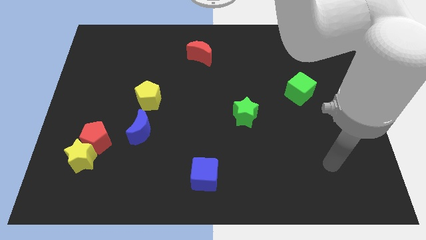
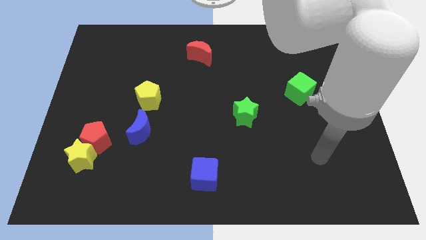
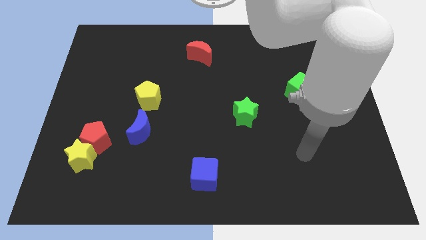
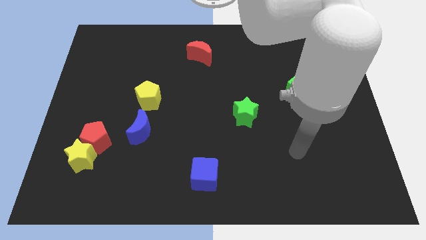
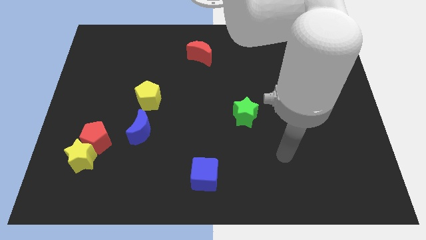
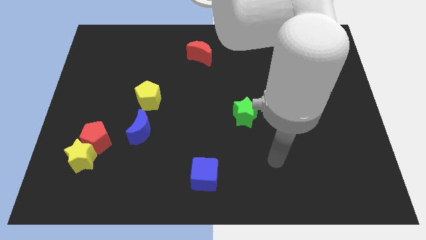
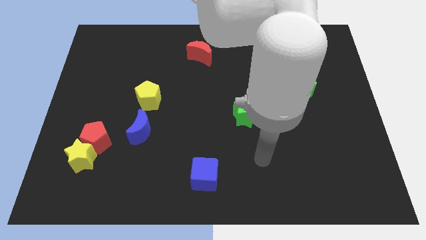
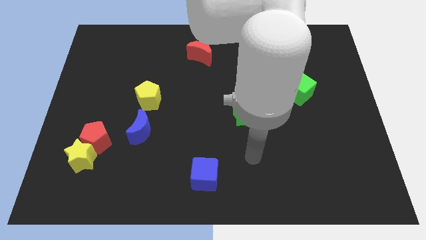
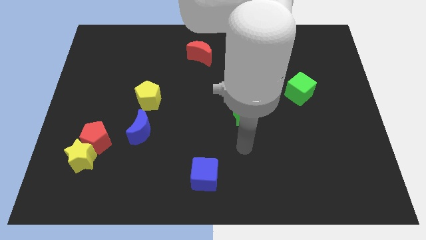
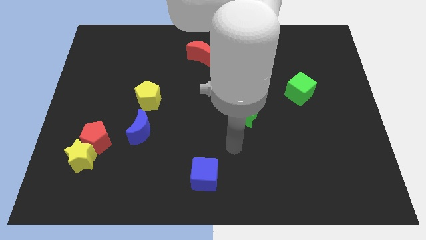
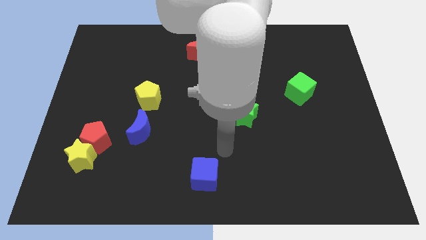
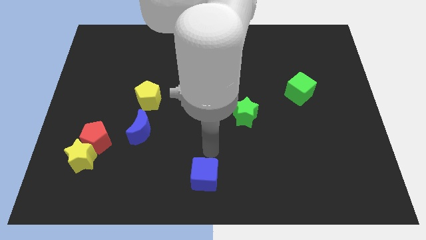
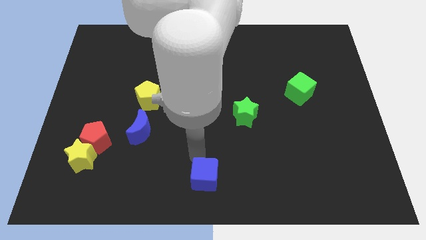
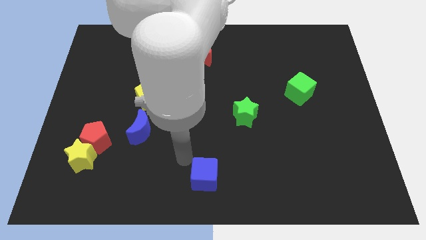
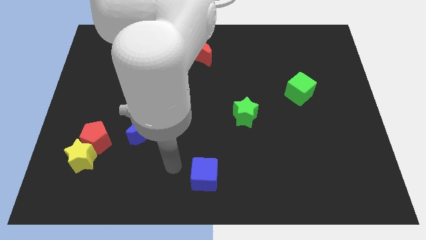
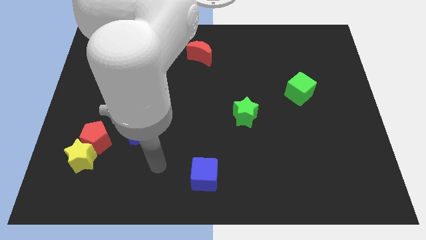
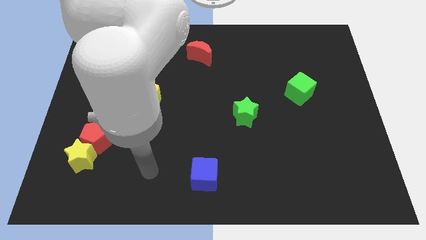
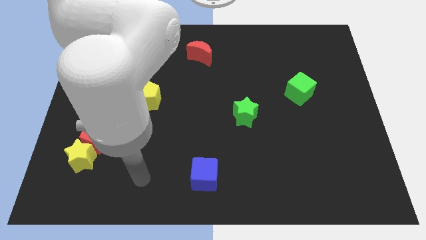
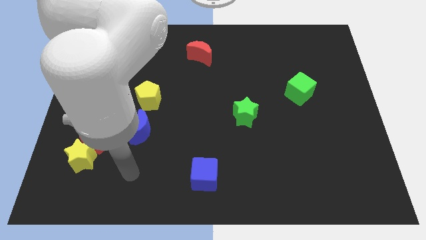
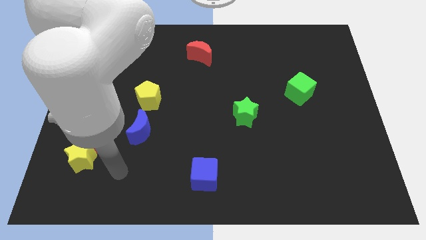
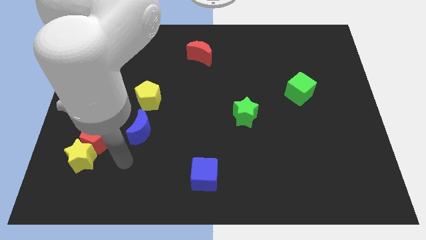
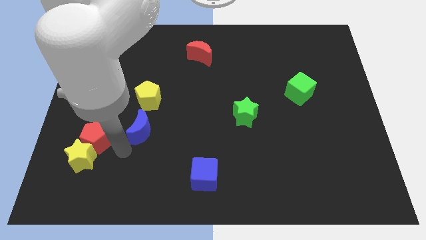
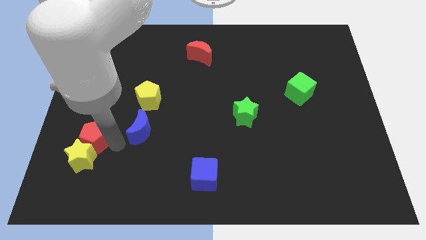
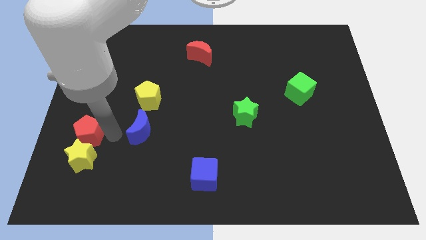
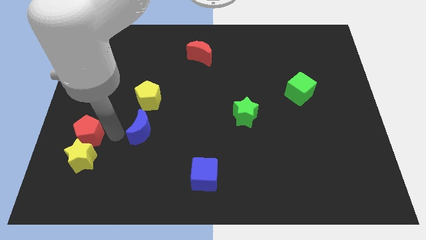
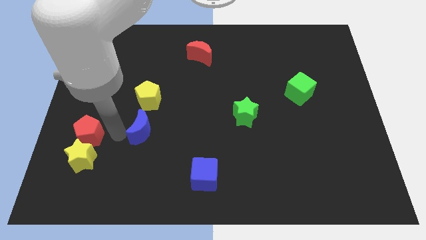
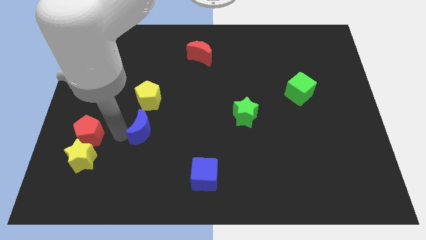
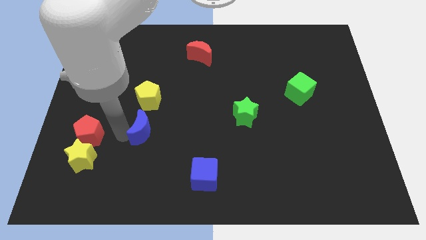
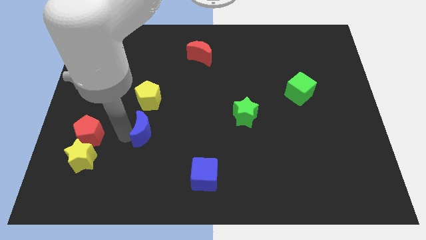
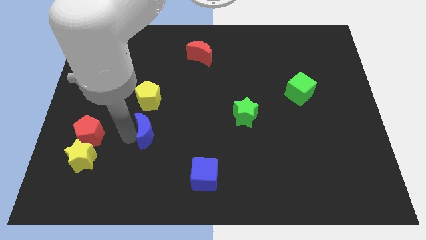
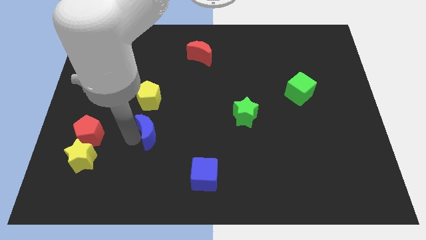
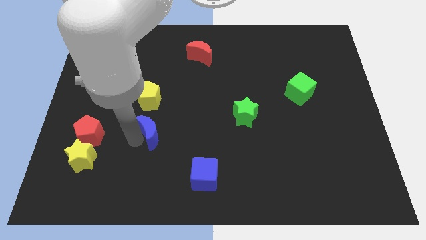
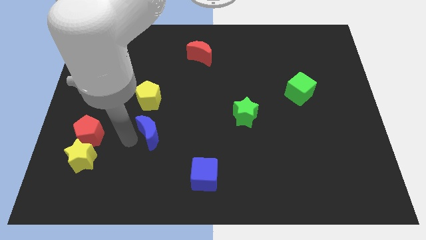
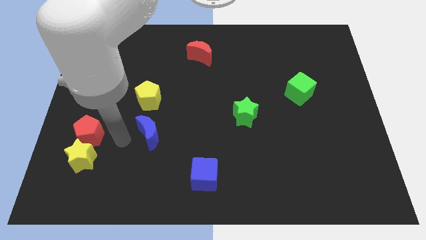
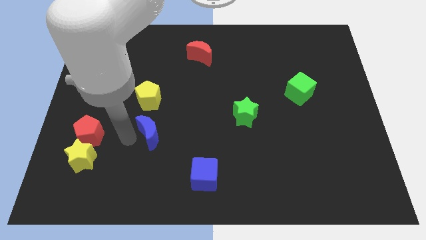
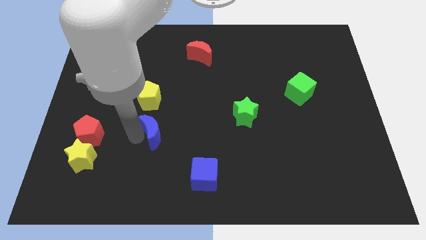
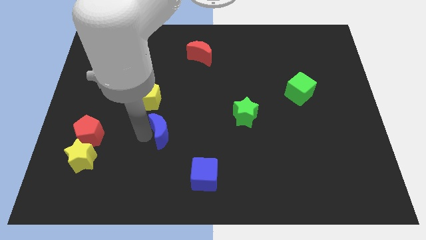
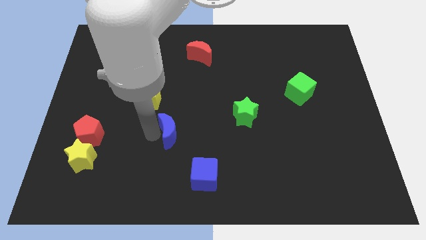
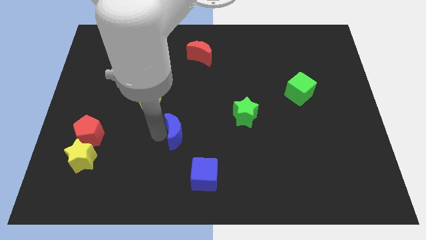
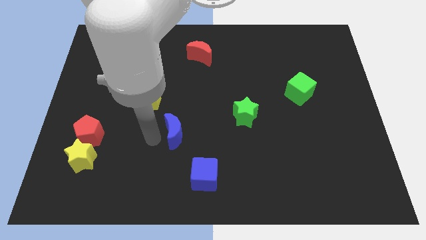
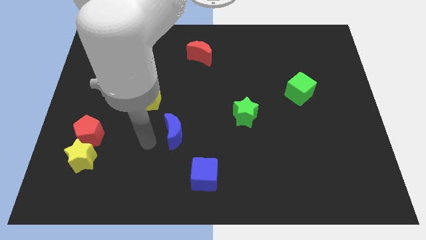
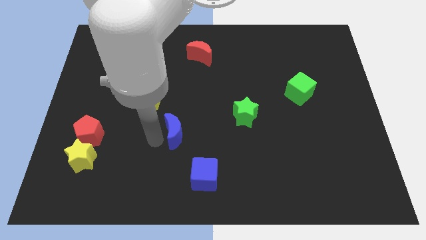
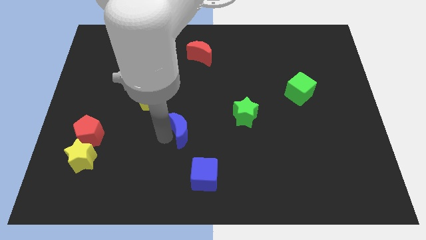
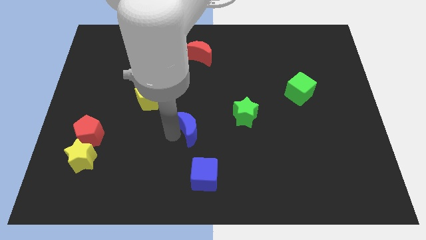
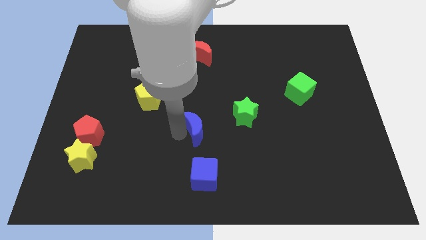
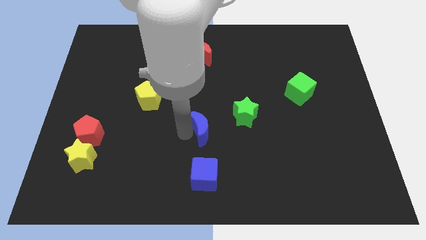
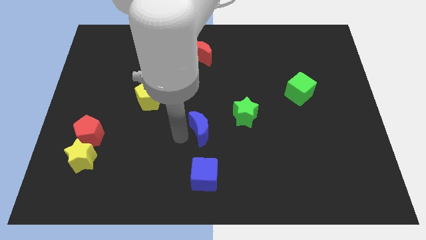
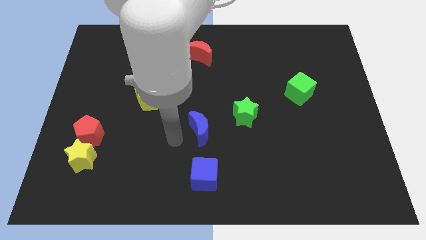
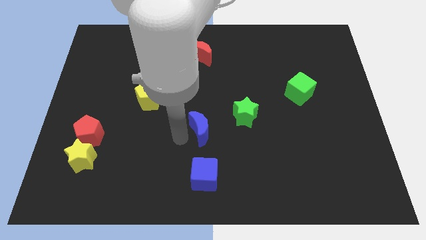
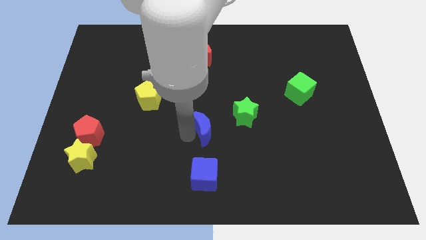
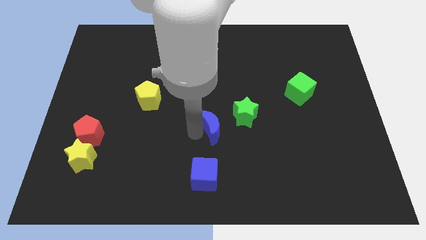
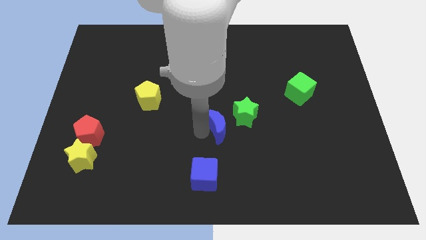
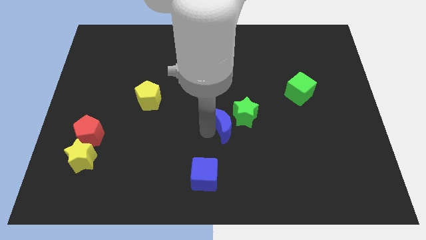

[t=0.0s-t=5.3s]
put the blue moon to the green star

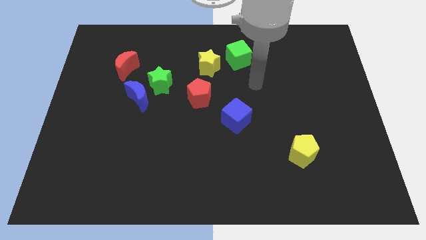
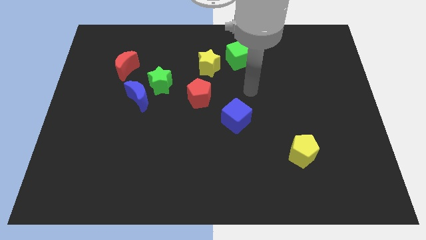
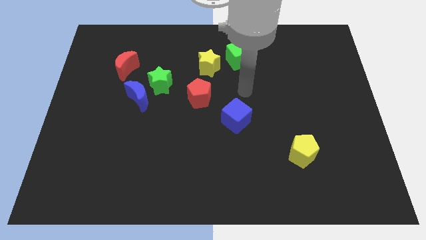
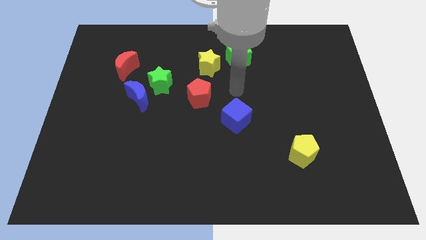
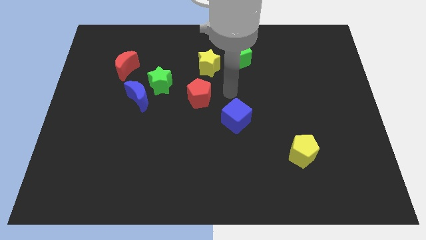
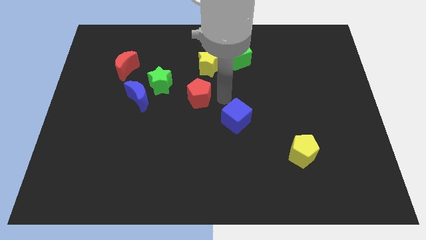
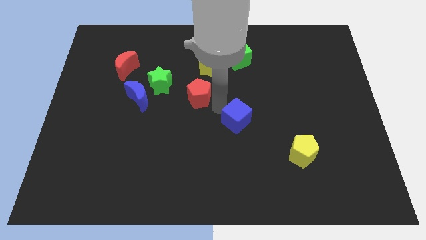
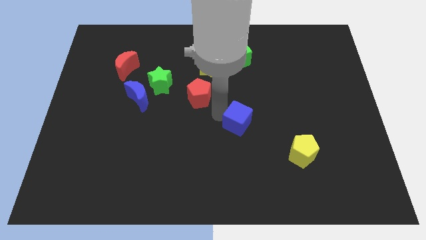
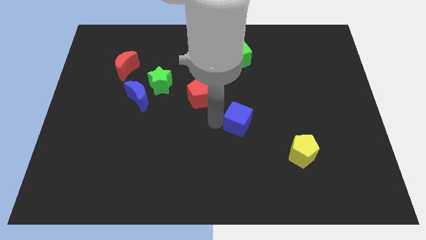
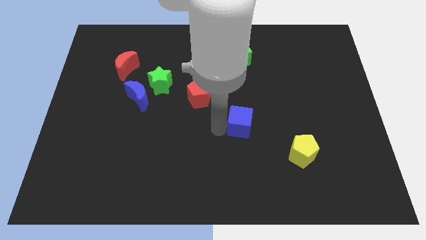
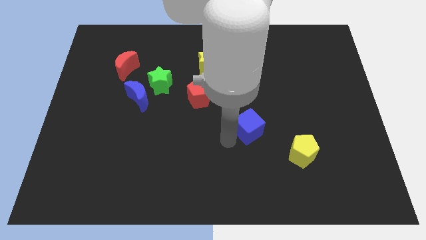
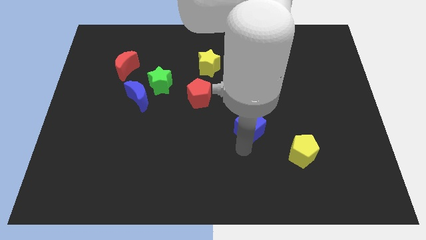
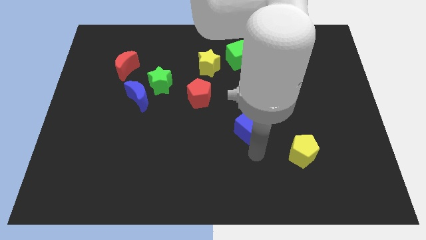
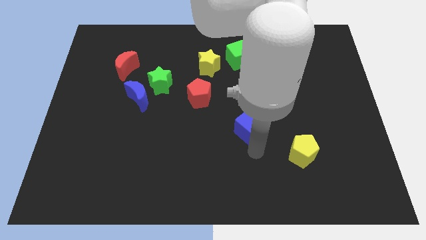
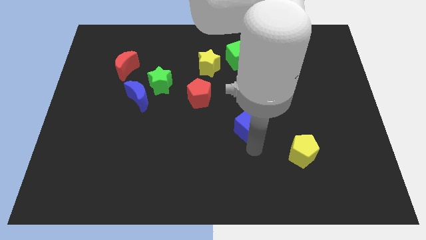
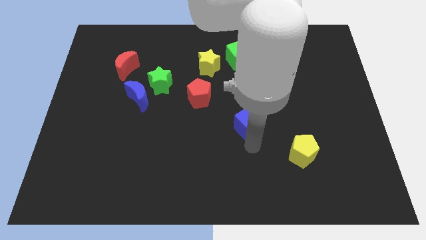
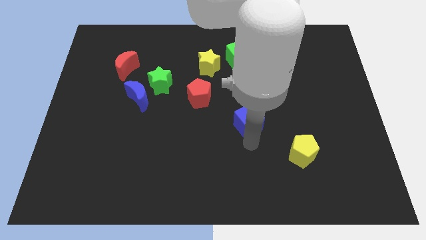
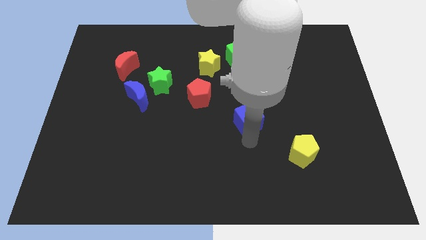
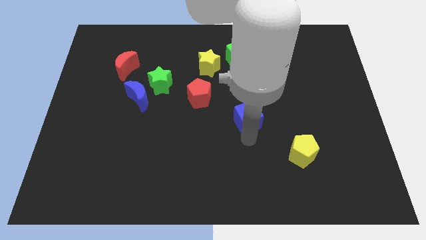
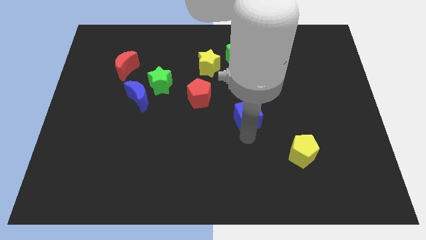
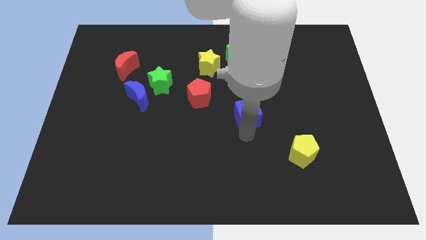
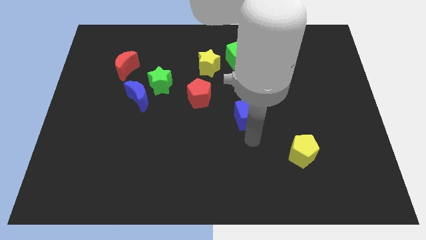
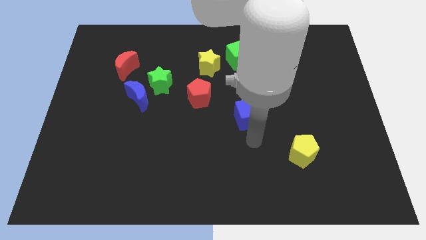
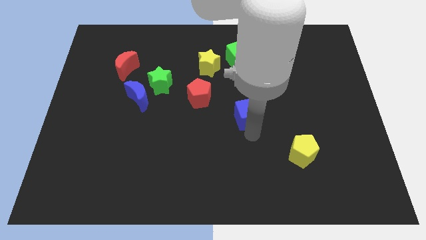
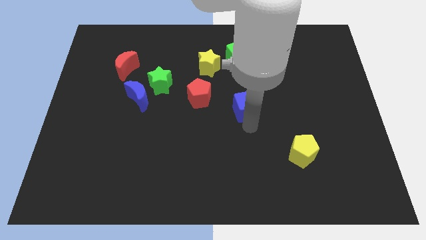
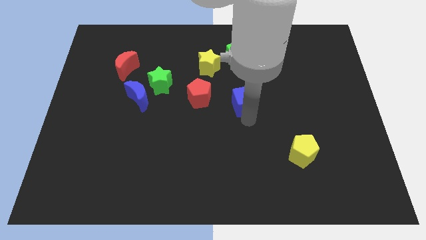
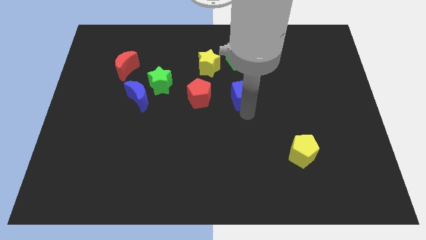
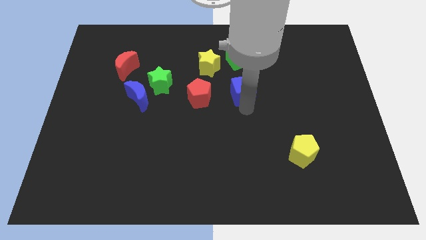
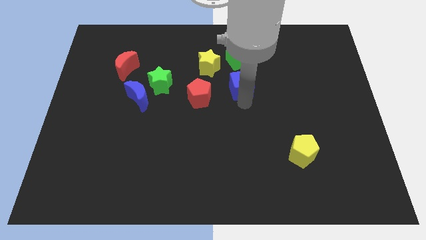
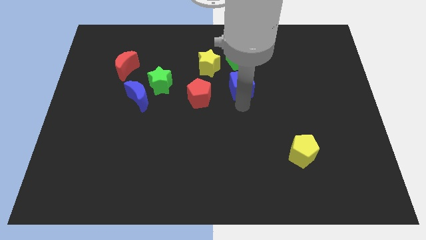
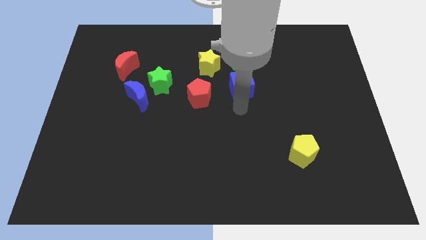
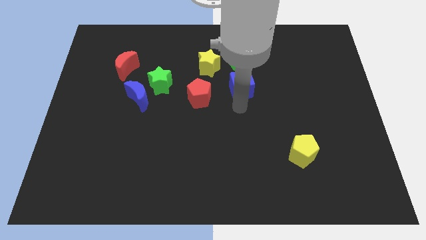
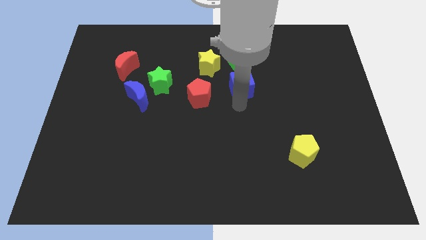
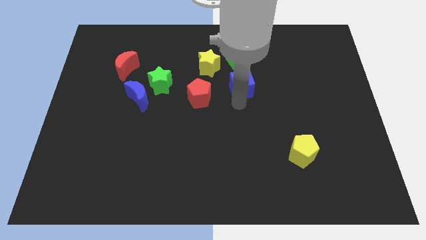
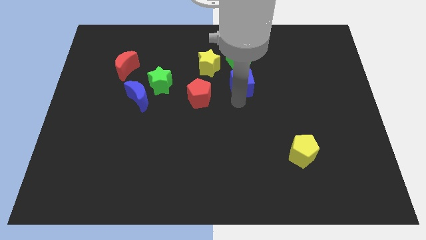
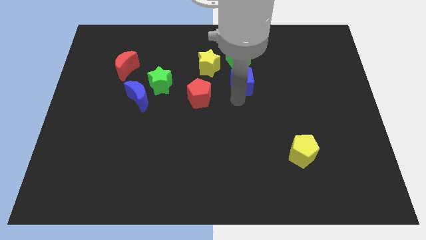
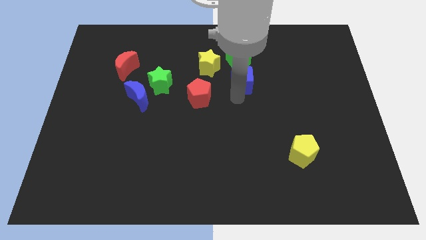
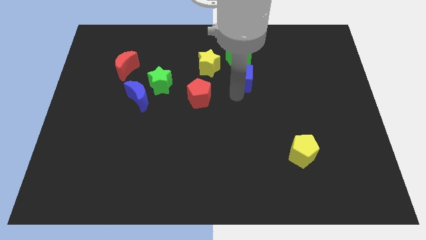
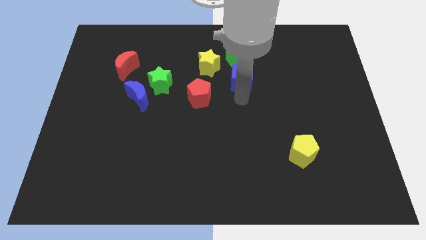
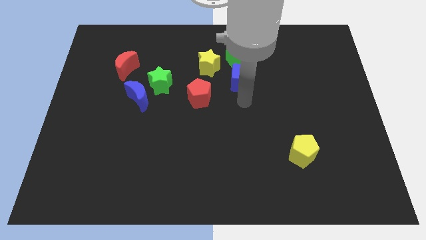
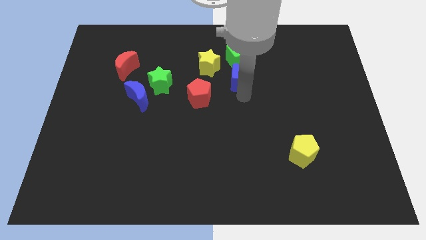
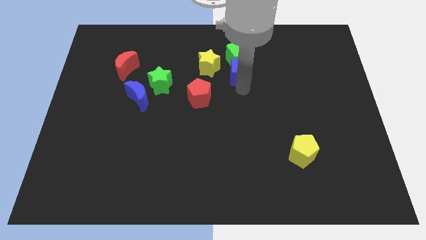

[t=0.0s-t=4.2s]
put the blue cube towards the green cube
